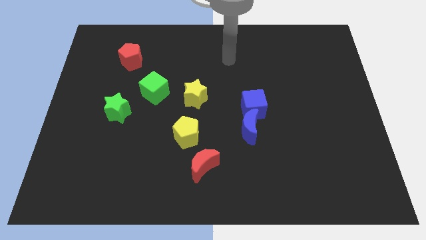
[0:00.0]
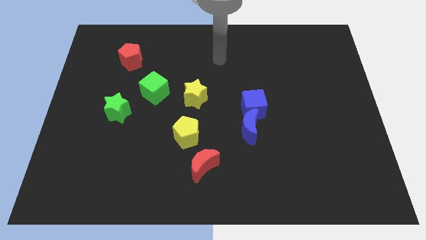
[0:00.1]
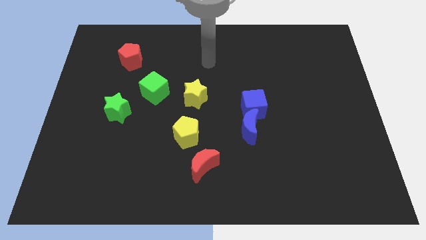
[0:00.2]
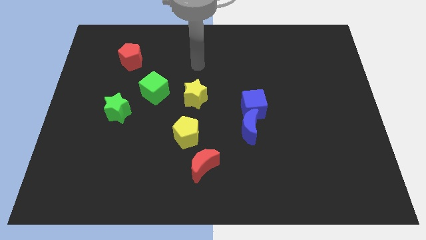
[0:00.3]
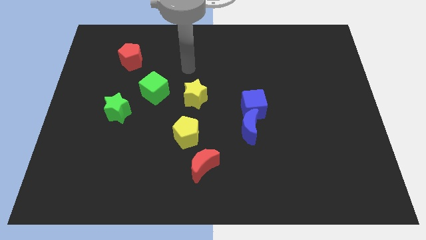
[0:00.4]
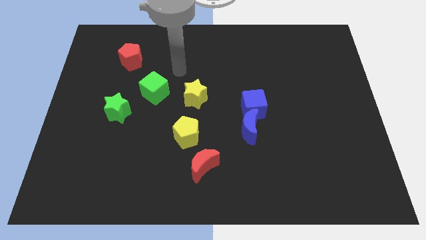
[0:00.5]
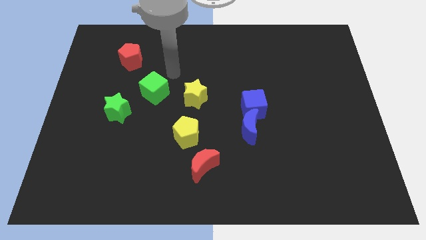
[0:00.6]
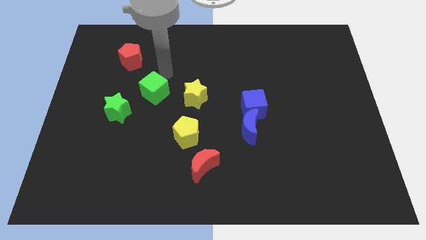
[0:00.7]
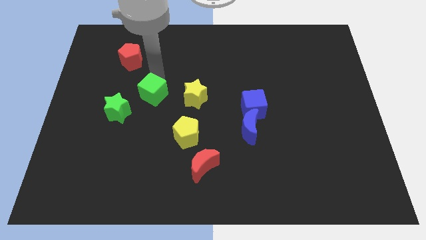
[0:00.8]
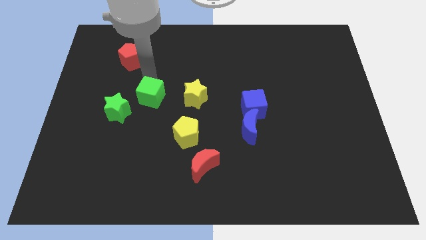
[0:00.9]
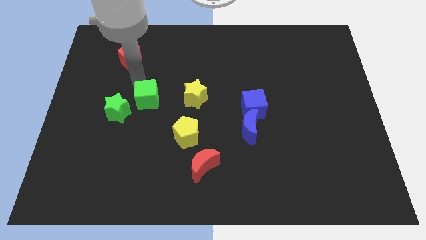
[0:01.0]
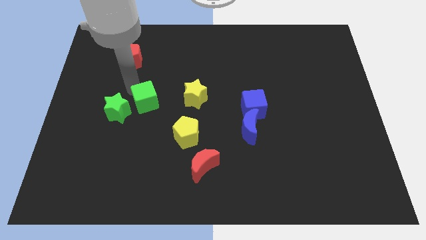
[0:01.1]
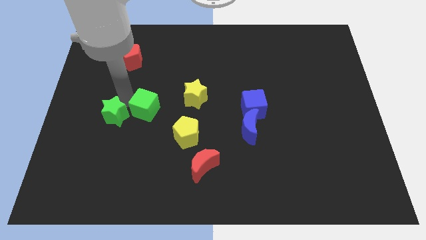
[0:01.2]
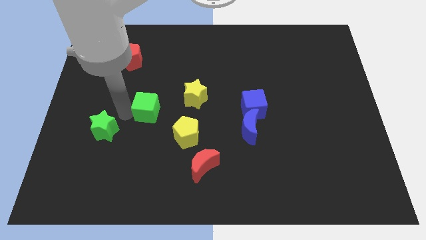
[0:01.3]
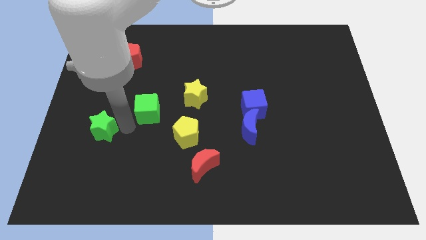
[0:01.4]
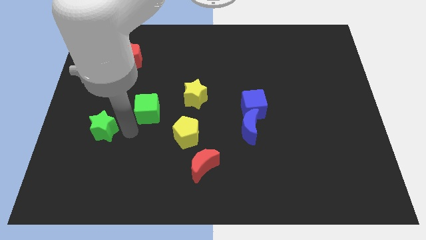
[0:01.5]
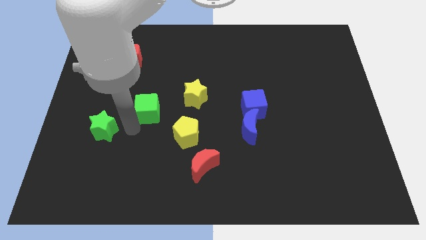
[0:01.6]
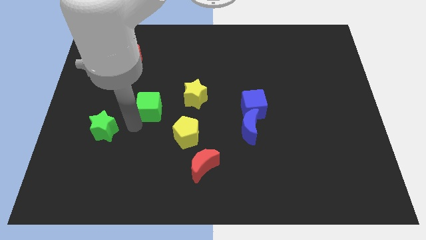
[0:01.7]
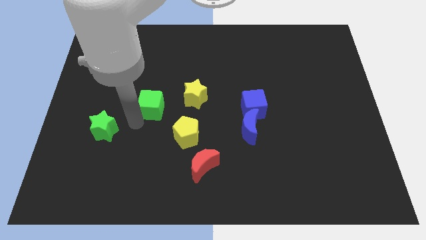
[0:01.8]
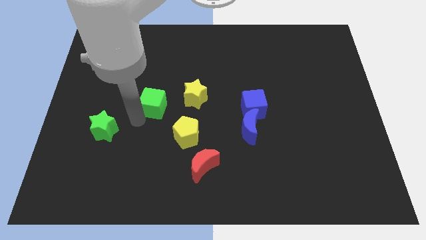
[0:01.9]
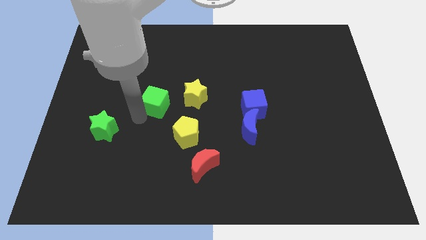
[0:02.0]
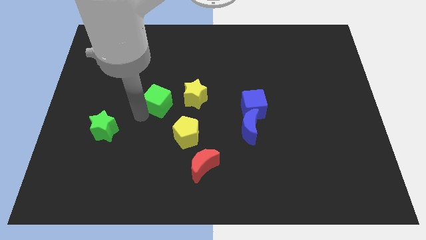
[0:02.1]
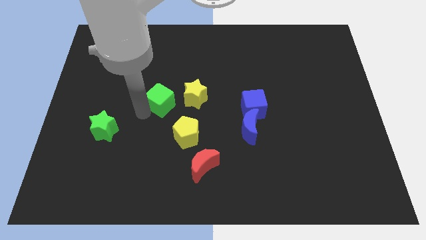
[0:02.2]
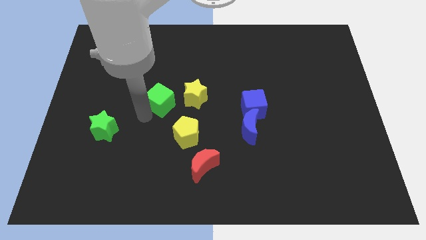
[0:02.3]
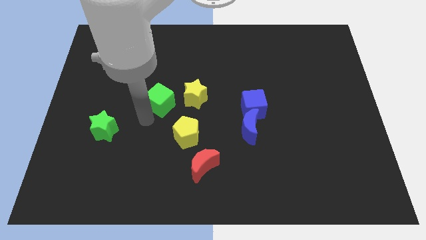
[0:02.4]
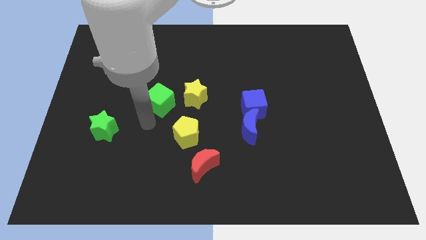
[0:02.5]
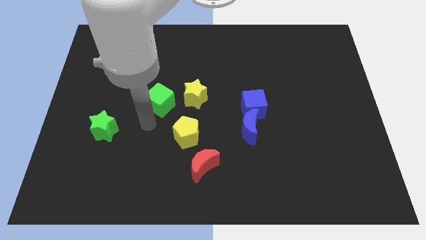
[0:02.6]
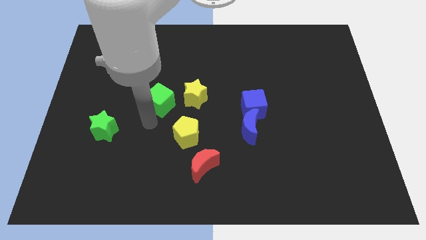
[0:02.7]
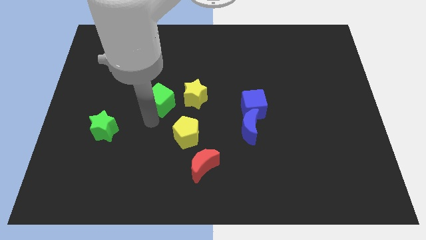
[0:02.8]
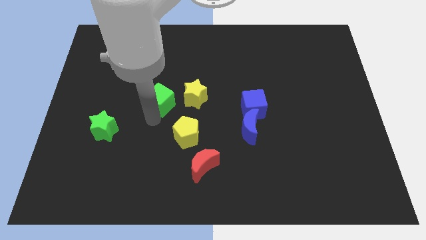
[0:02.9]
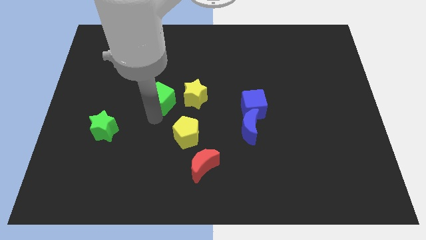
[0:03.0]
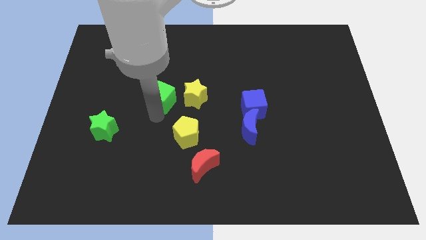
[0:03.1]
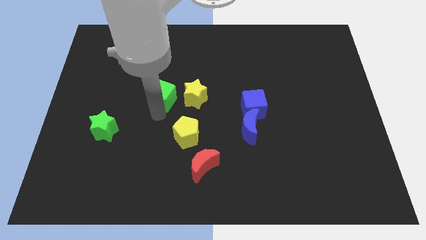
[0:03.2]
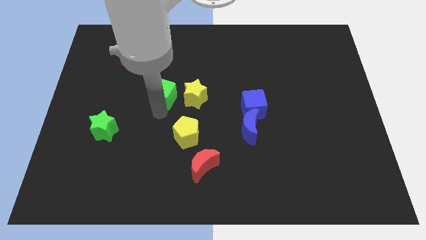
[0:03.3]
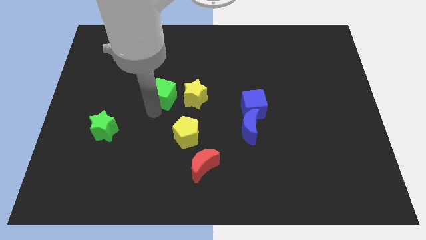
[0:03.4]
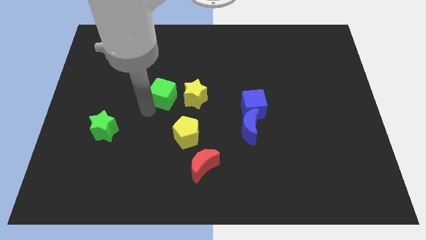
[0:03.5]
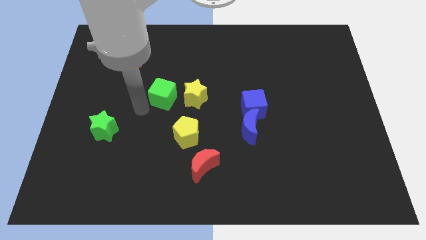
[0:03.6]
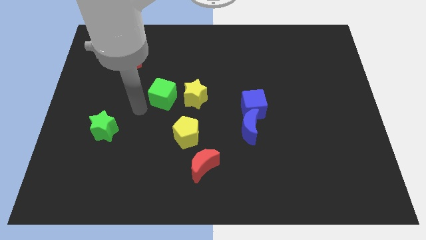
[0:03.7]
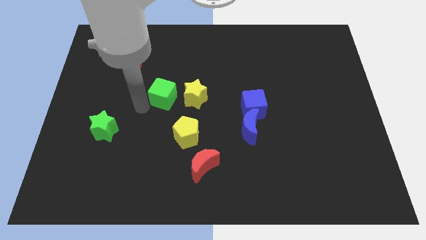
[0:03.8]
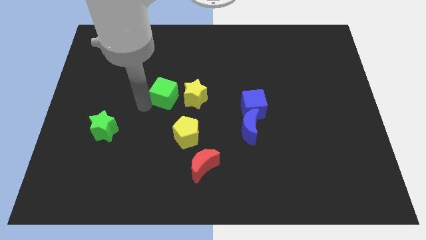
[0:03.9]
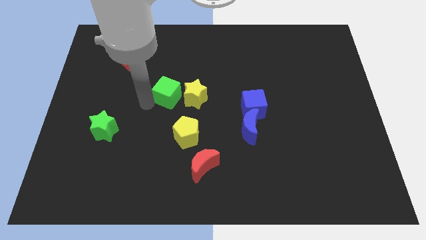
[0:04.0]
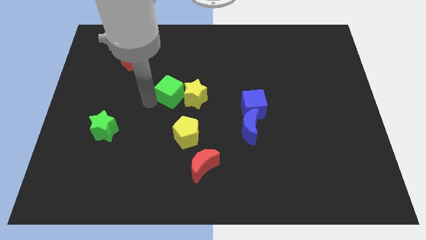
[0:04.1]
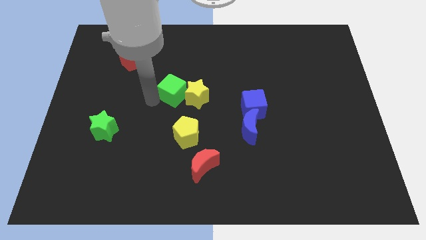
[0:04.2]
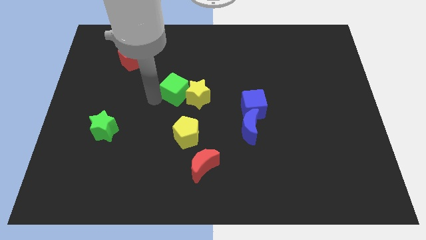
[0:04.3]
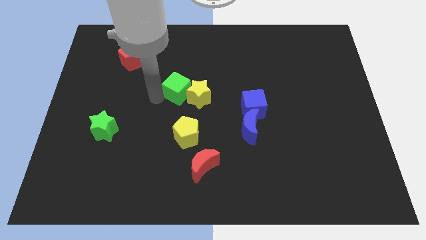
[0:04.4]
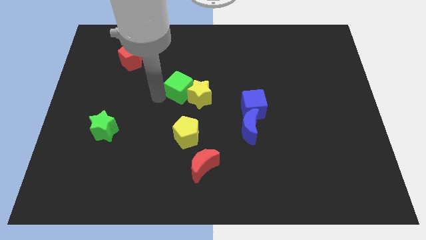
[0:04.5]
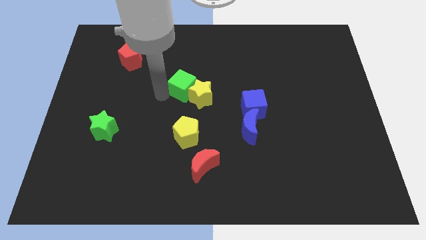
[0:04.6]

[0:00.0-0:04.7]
slightly push the green cube to the right

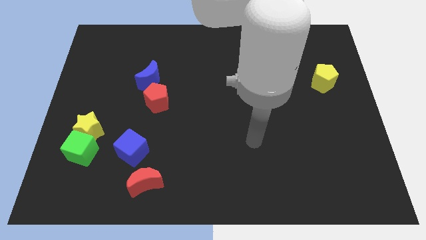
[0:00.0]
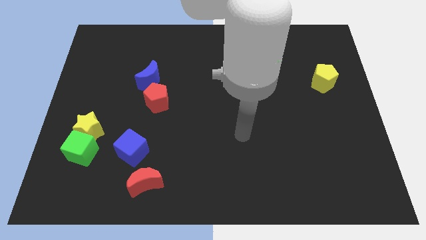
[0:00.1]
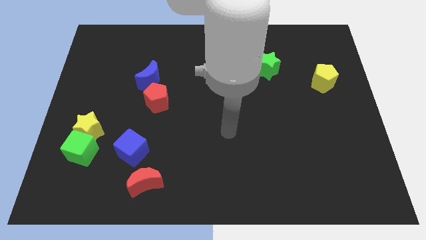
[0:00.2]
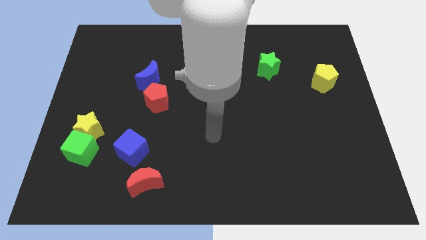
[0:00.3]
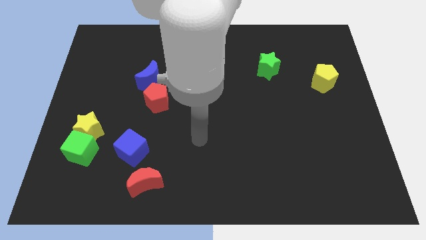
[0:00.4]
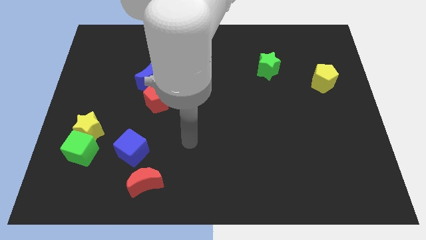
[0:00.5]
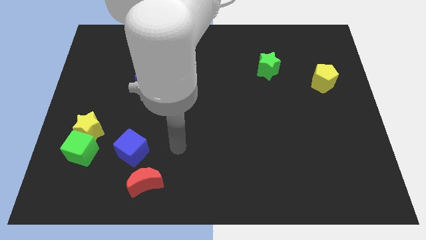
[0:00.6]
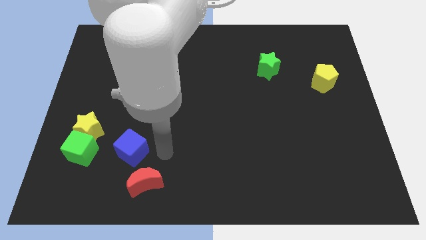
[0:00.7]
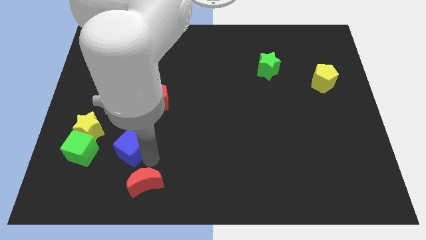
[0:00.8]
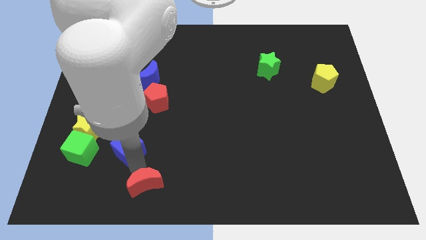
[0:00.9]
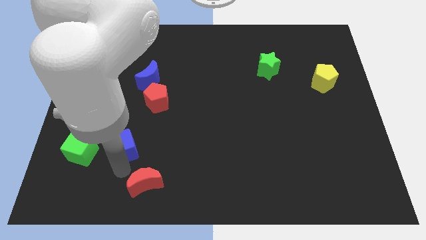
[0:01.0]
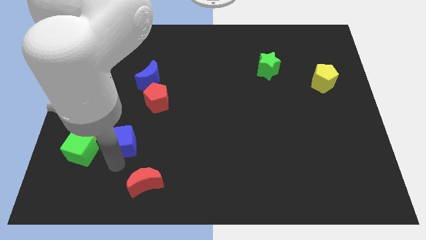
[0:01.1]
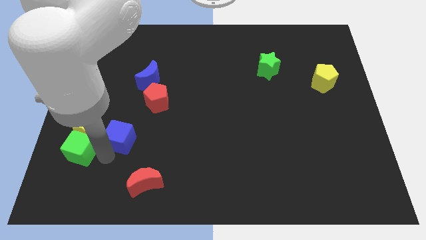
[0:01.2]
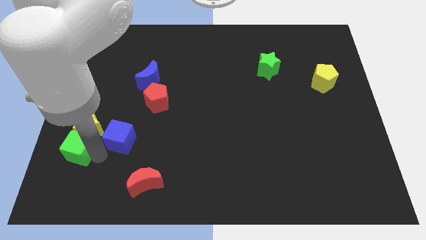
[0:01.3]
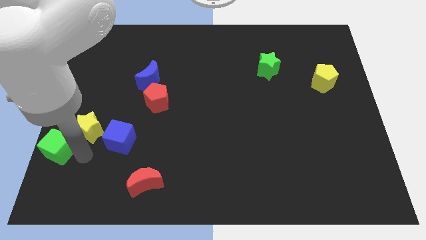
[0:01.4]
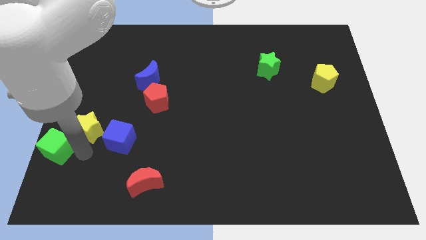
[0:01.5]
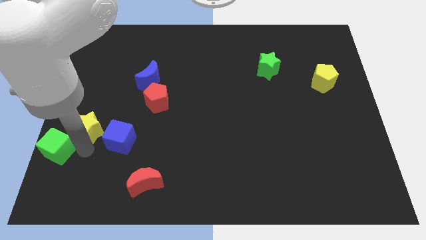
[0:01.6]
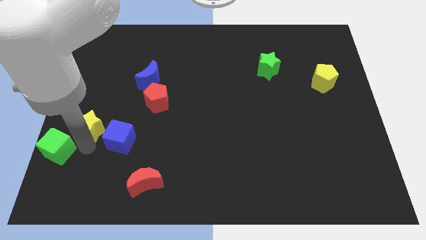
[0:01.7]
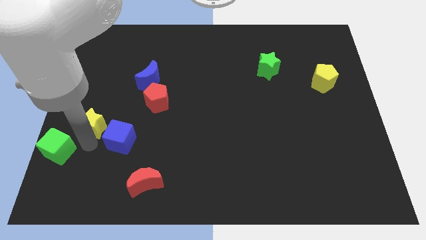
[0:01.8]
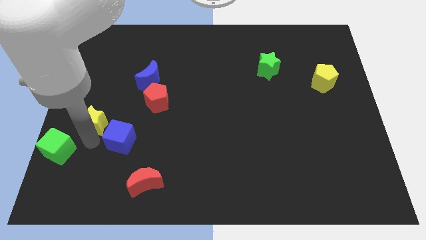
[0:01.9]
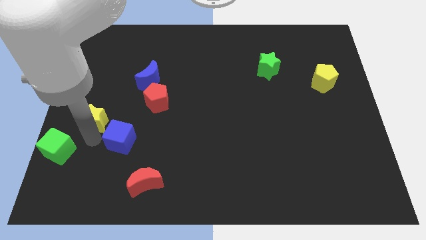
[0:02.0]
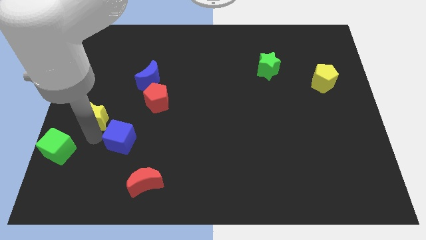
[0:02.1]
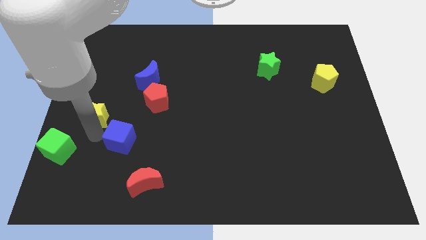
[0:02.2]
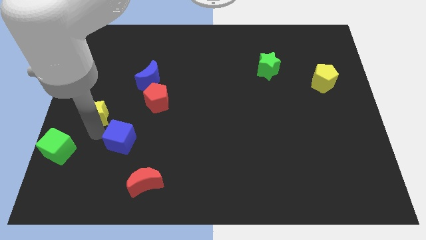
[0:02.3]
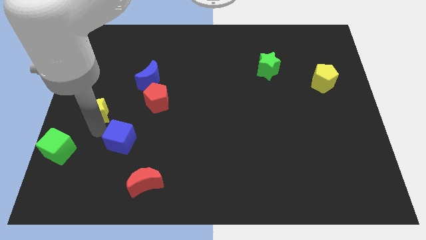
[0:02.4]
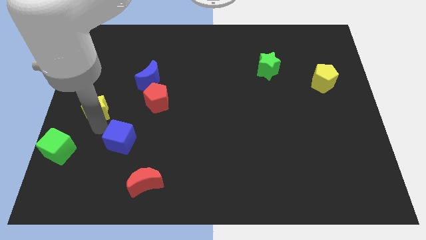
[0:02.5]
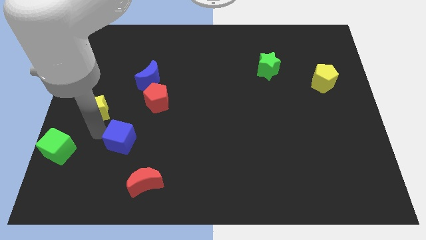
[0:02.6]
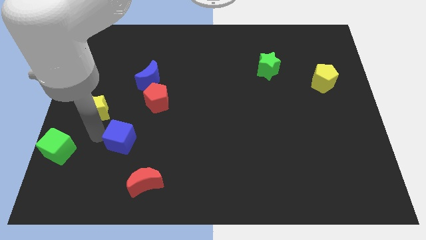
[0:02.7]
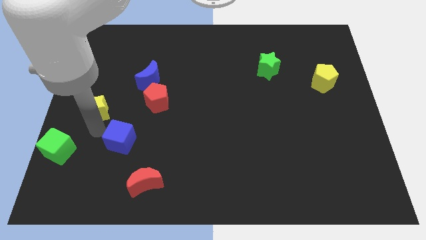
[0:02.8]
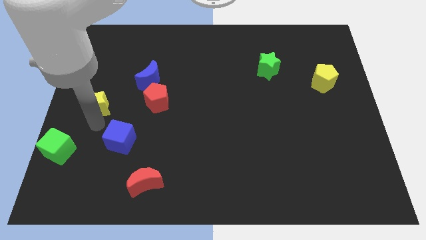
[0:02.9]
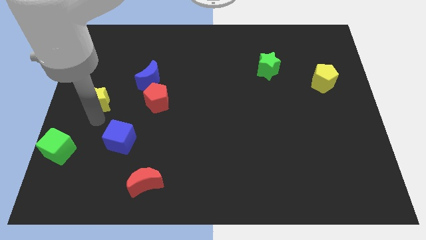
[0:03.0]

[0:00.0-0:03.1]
slightly slide the yellow star upwards
